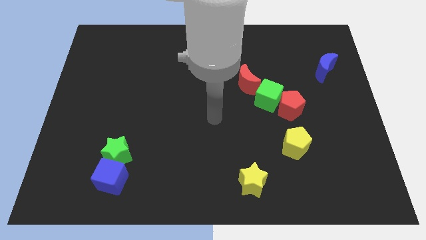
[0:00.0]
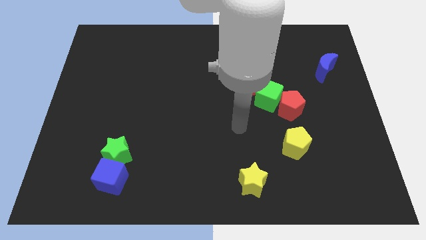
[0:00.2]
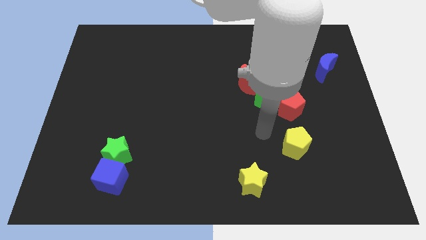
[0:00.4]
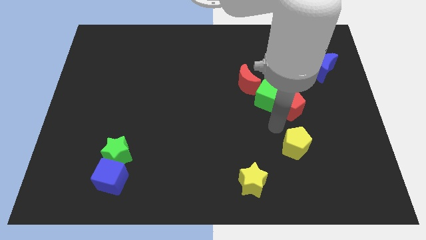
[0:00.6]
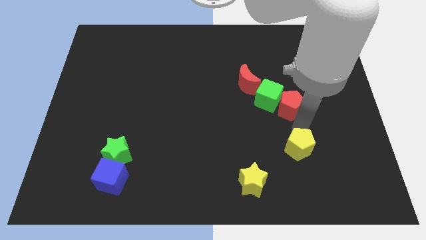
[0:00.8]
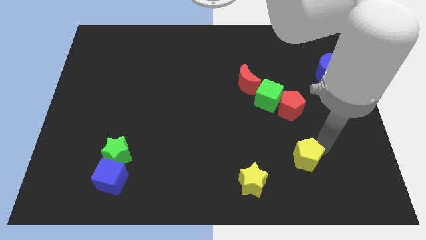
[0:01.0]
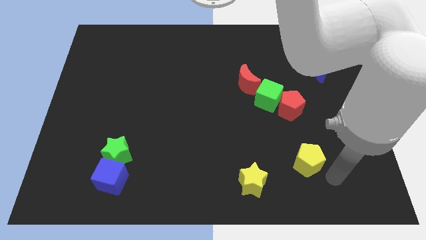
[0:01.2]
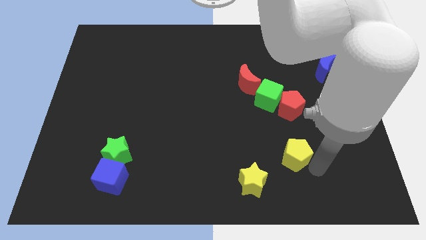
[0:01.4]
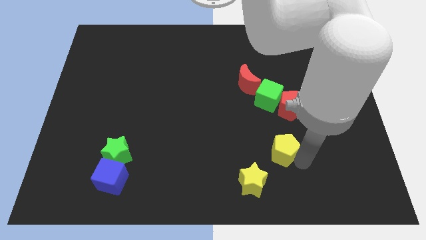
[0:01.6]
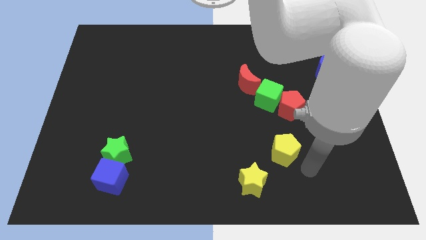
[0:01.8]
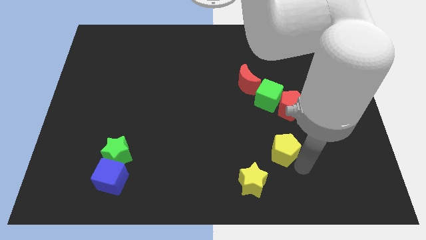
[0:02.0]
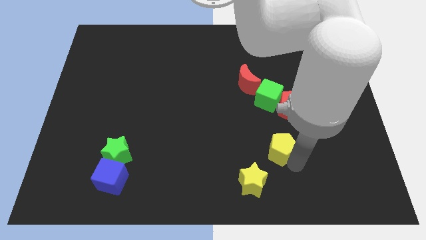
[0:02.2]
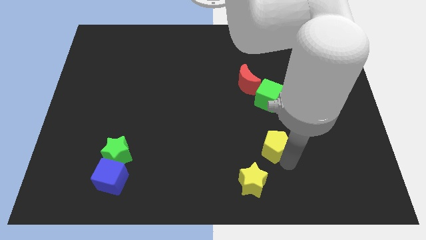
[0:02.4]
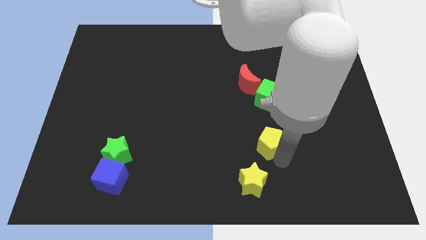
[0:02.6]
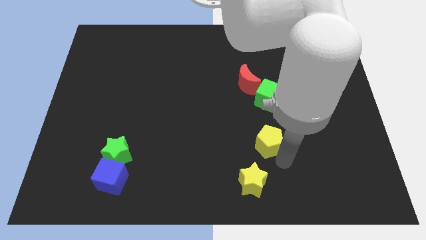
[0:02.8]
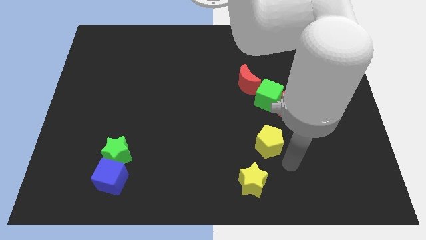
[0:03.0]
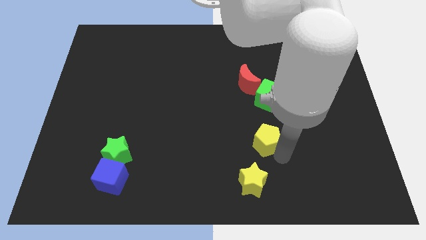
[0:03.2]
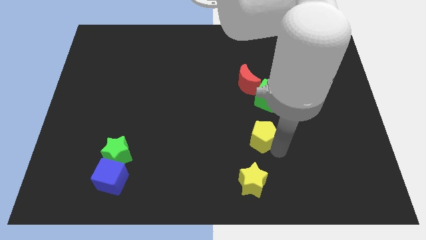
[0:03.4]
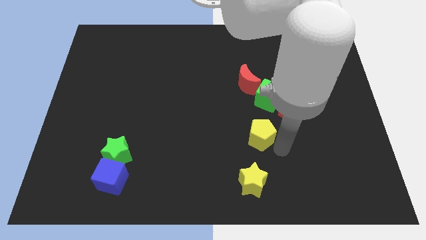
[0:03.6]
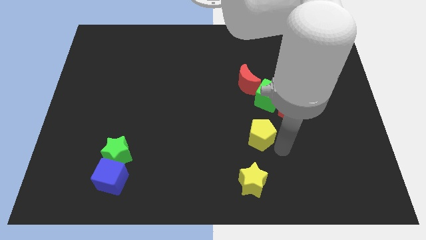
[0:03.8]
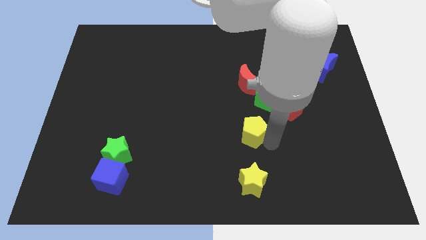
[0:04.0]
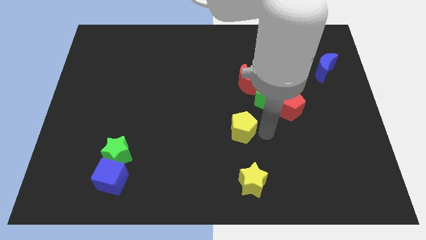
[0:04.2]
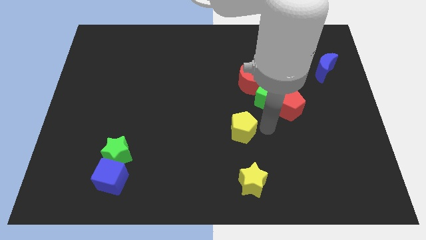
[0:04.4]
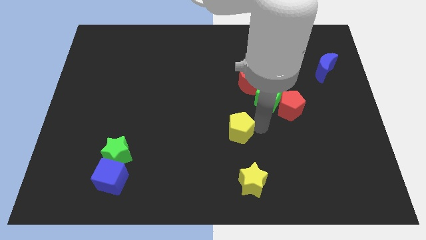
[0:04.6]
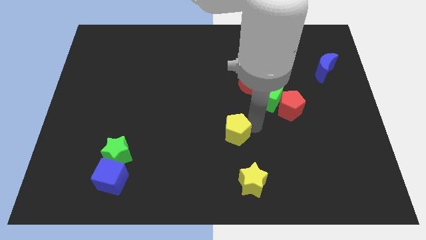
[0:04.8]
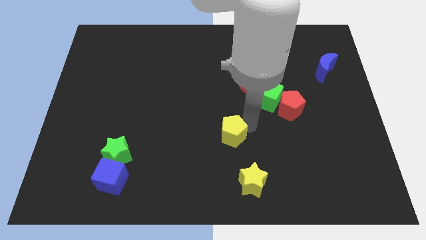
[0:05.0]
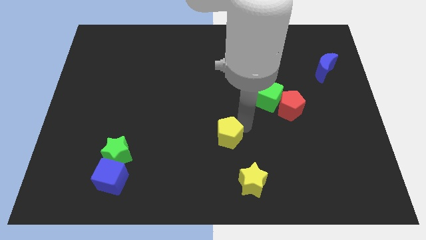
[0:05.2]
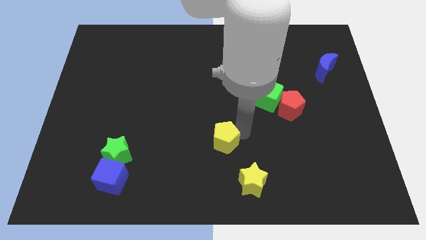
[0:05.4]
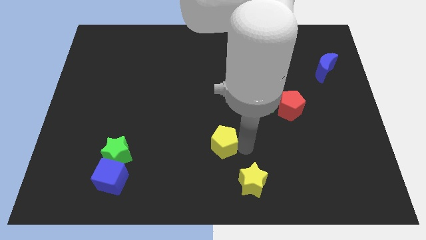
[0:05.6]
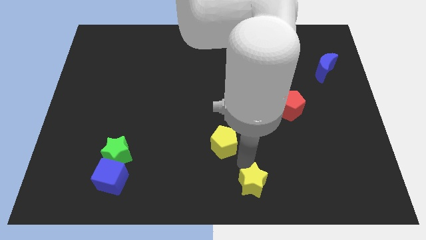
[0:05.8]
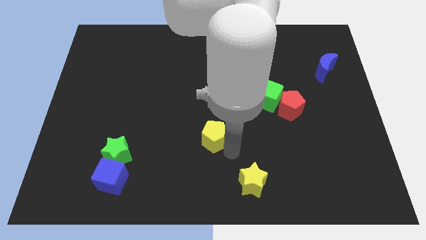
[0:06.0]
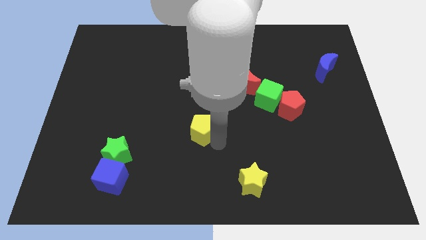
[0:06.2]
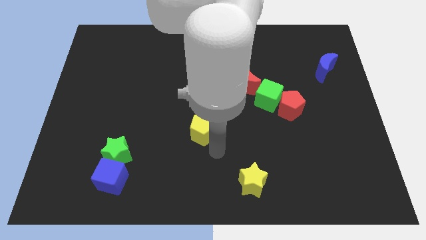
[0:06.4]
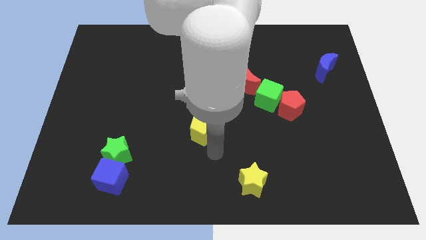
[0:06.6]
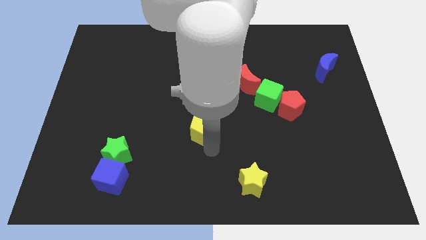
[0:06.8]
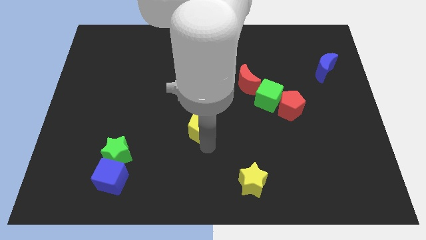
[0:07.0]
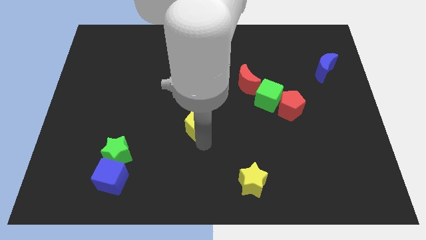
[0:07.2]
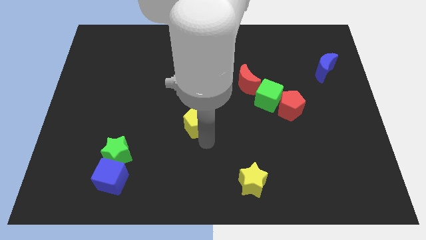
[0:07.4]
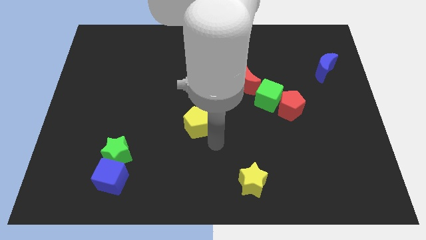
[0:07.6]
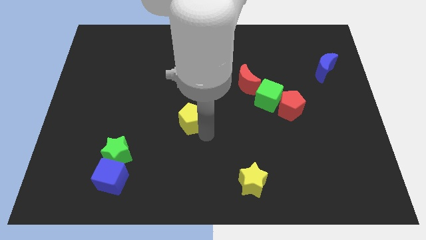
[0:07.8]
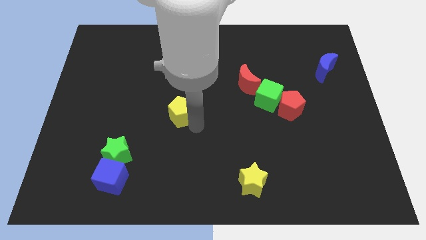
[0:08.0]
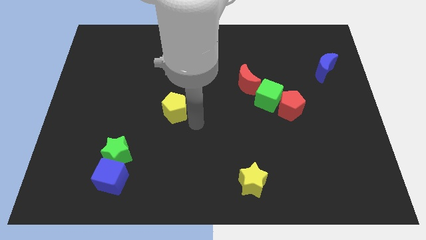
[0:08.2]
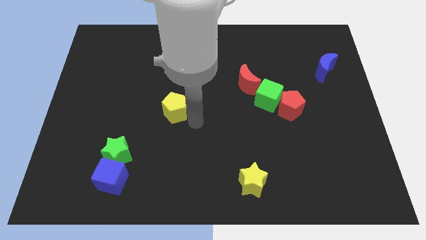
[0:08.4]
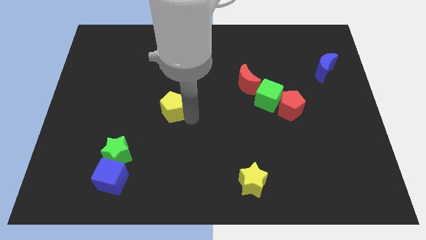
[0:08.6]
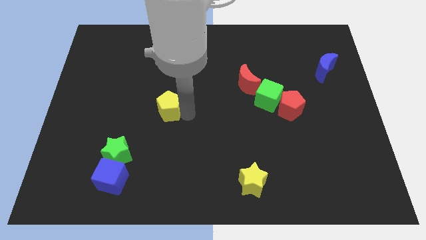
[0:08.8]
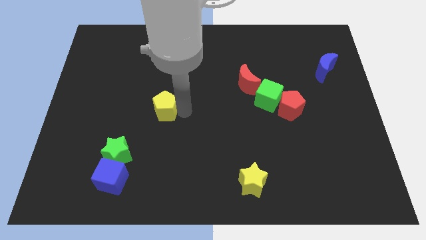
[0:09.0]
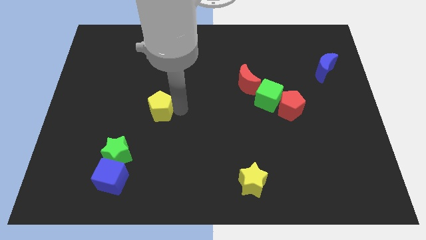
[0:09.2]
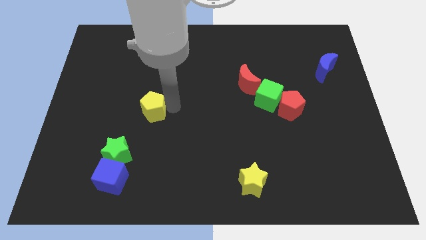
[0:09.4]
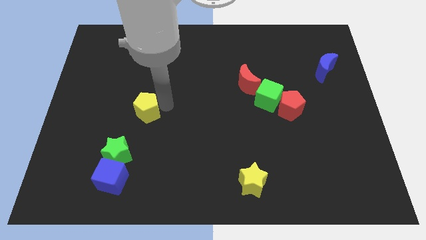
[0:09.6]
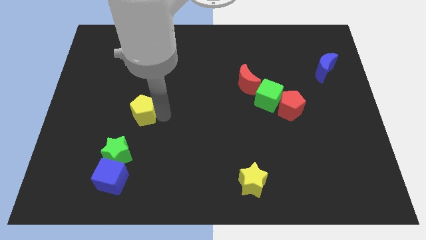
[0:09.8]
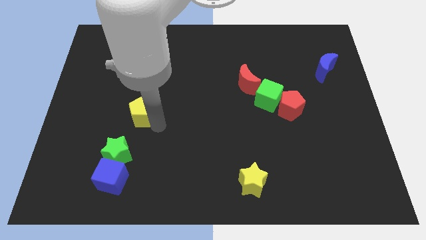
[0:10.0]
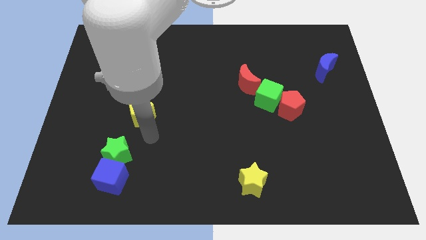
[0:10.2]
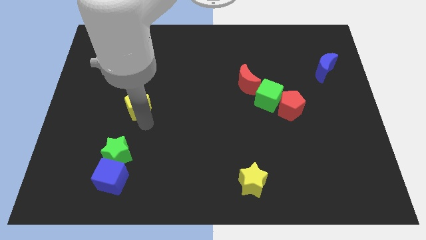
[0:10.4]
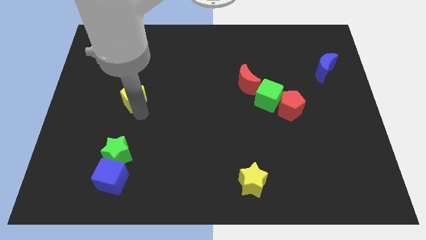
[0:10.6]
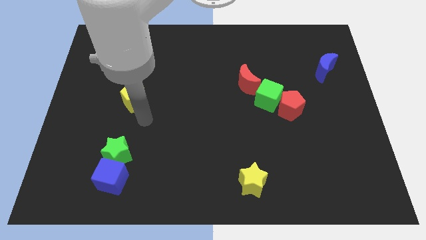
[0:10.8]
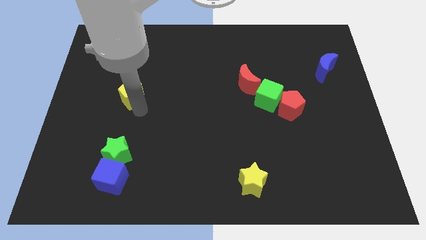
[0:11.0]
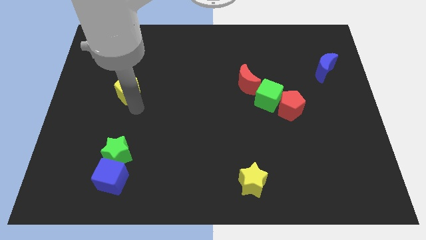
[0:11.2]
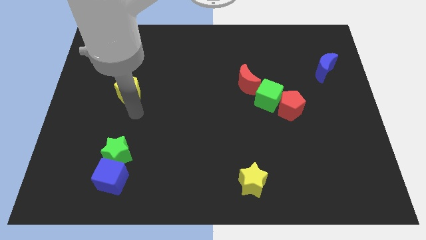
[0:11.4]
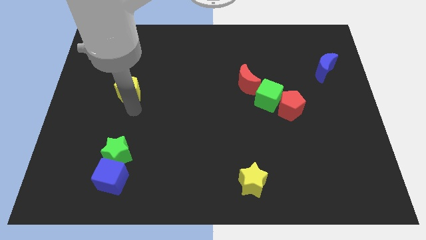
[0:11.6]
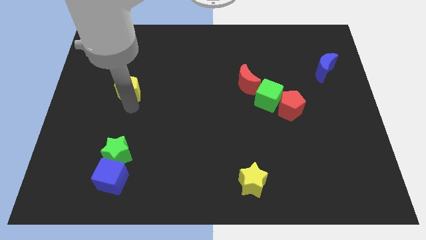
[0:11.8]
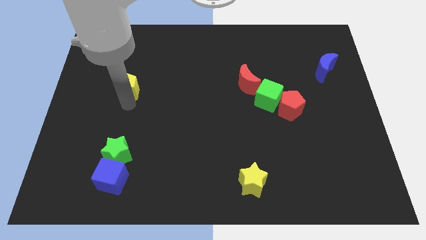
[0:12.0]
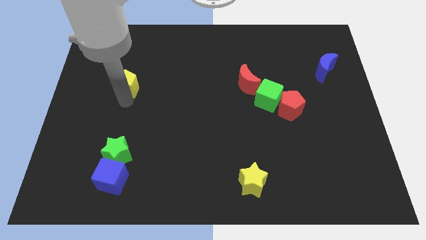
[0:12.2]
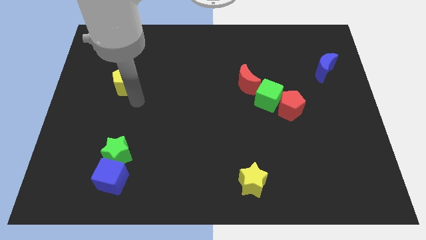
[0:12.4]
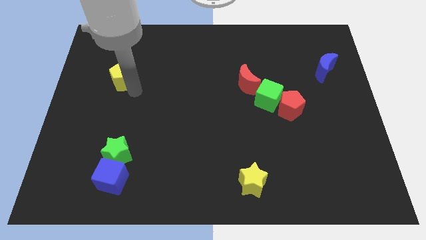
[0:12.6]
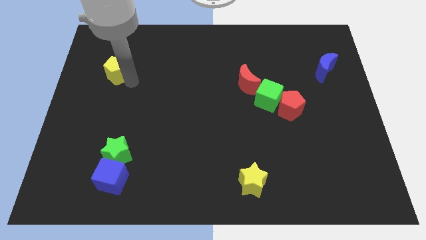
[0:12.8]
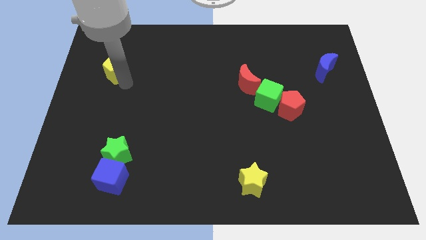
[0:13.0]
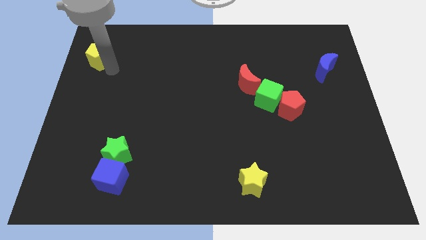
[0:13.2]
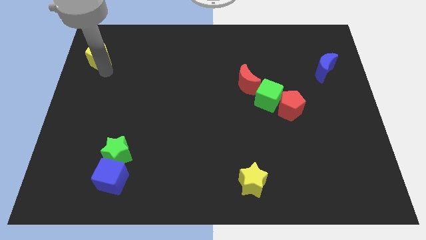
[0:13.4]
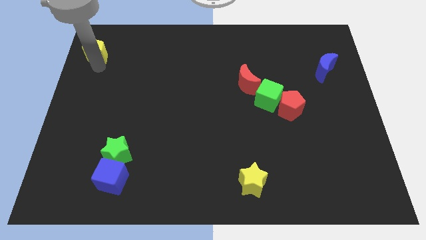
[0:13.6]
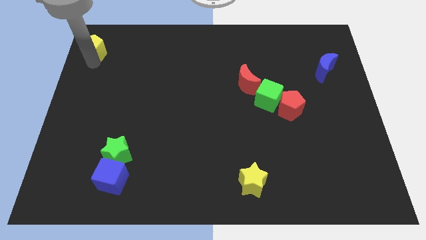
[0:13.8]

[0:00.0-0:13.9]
move the yellow pentagon to the top left corner
